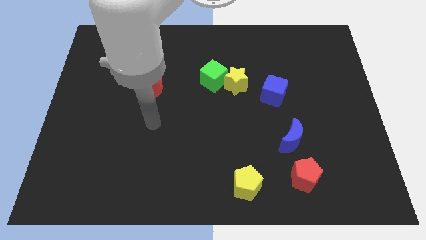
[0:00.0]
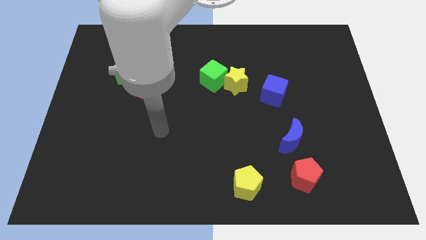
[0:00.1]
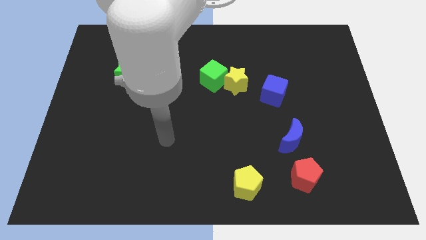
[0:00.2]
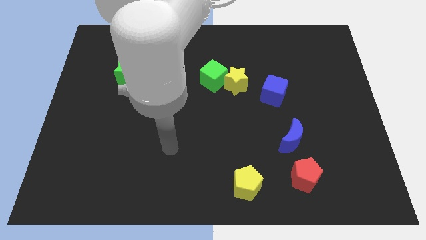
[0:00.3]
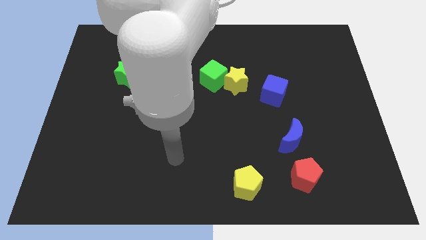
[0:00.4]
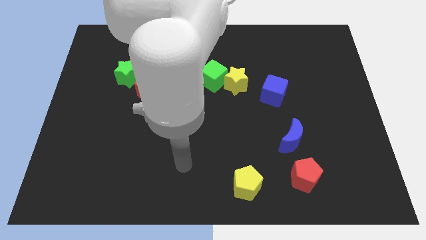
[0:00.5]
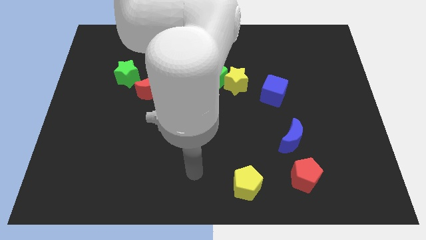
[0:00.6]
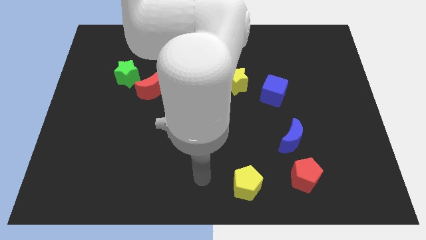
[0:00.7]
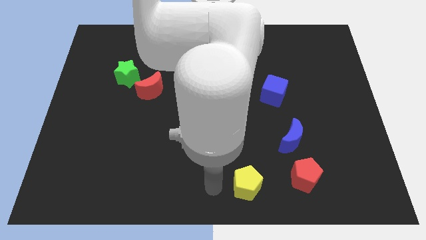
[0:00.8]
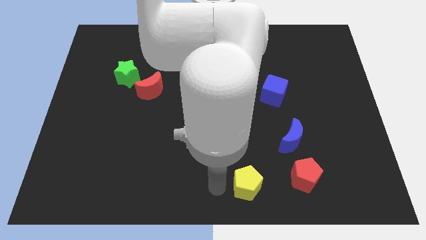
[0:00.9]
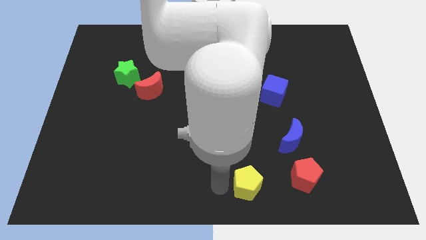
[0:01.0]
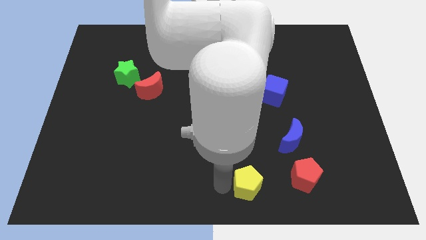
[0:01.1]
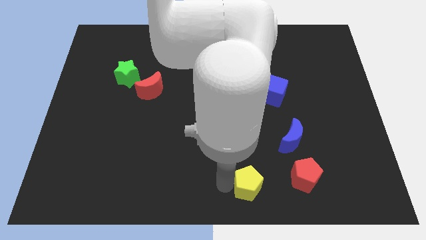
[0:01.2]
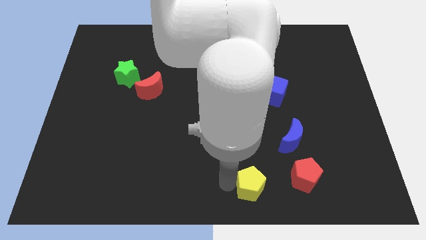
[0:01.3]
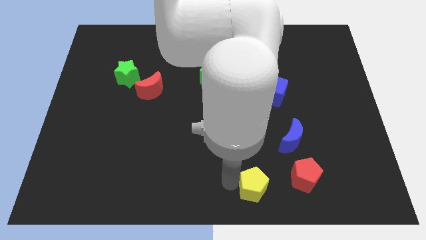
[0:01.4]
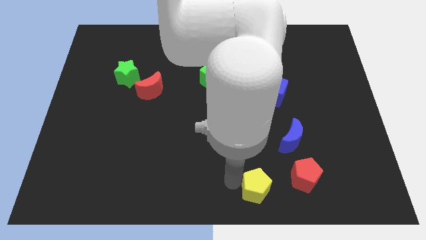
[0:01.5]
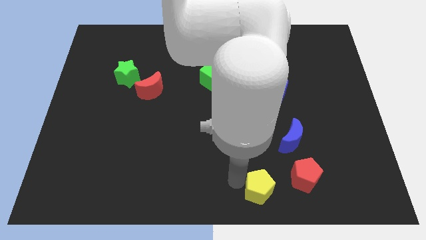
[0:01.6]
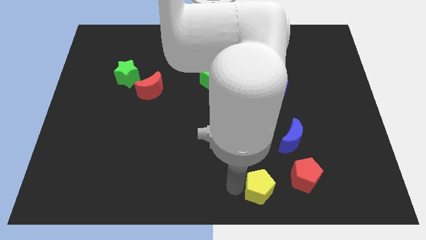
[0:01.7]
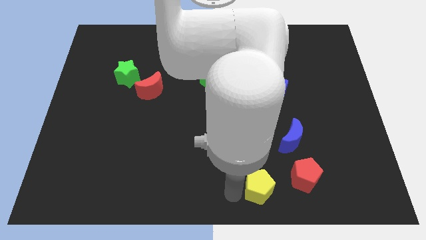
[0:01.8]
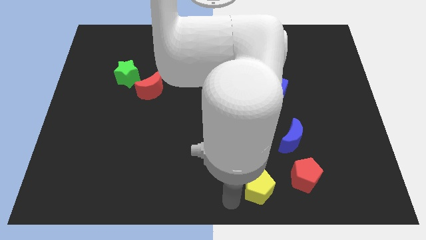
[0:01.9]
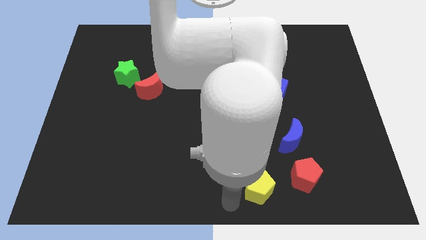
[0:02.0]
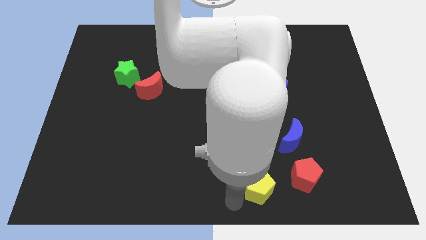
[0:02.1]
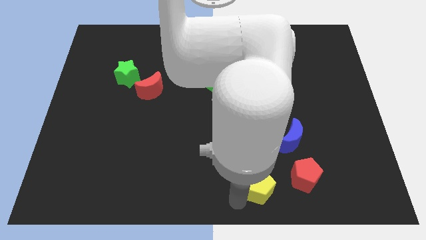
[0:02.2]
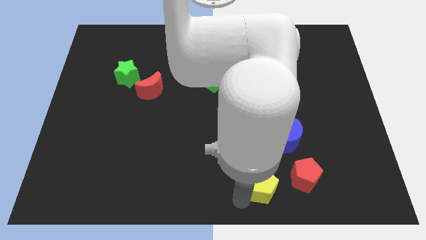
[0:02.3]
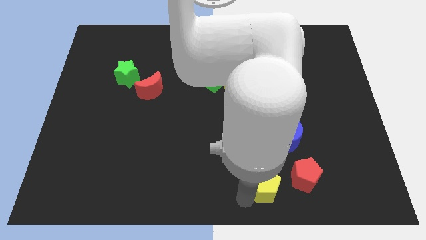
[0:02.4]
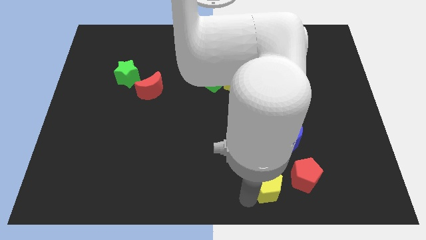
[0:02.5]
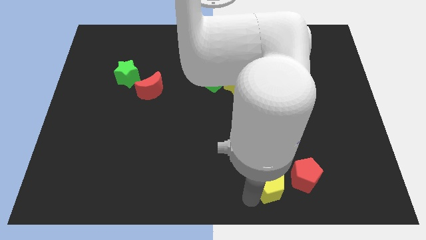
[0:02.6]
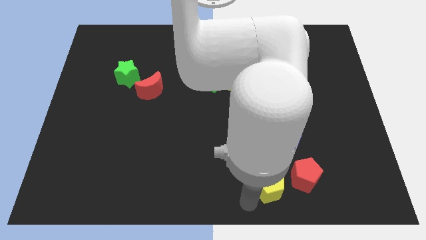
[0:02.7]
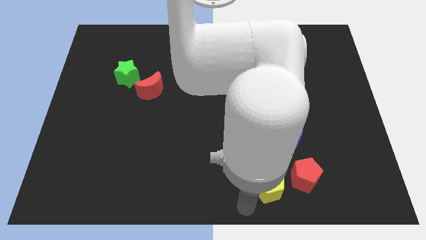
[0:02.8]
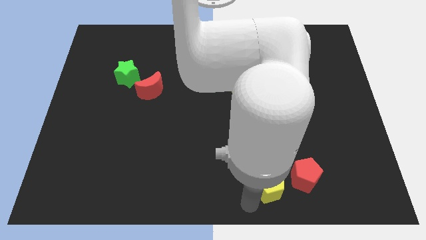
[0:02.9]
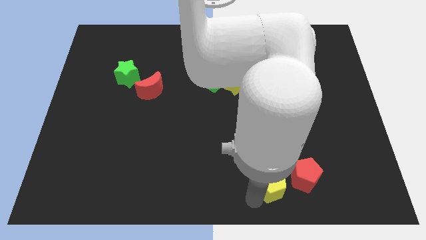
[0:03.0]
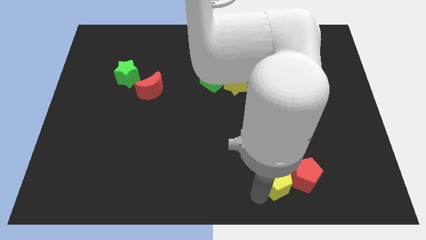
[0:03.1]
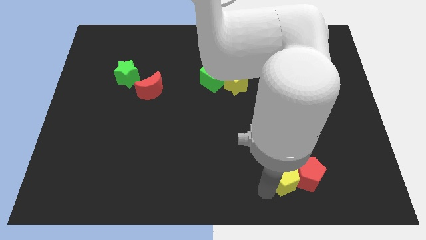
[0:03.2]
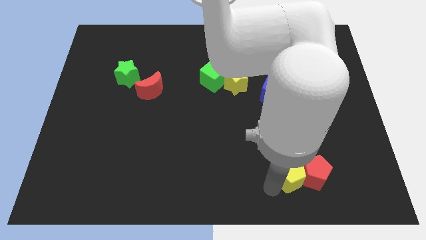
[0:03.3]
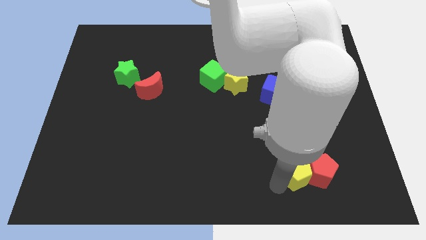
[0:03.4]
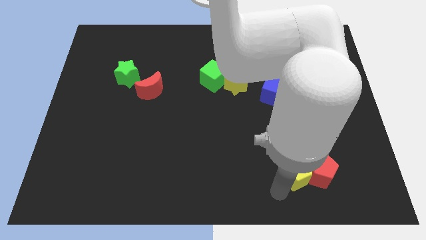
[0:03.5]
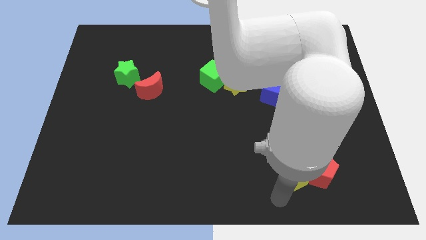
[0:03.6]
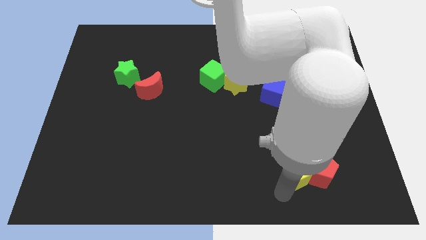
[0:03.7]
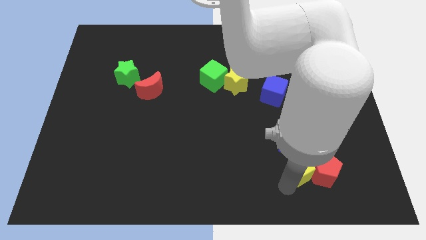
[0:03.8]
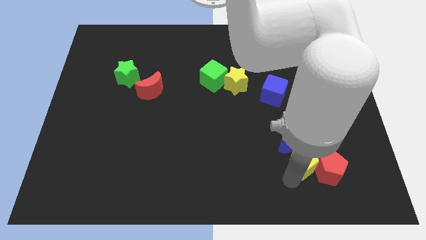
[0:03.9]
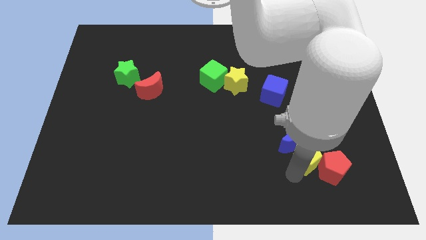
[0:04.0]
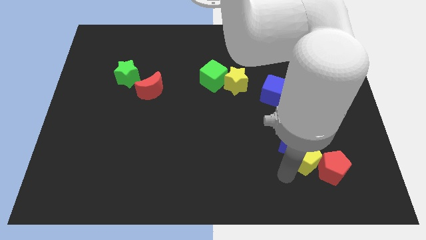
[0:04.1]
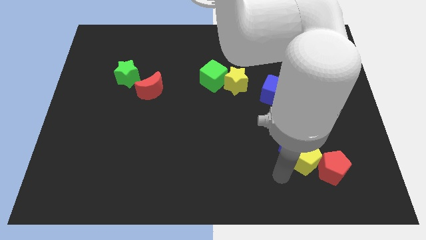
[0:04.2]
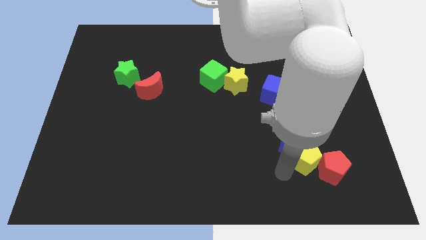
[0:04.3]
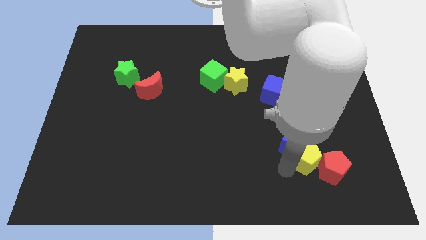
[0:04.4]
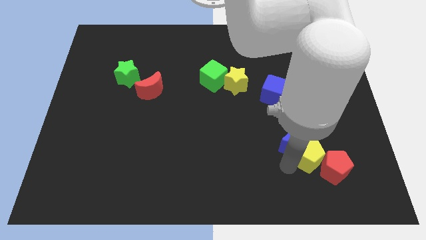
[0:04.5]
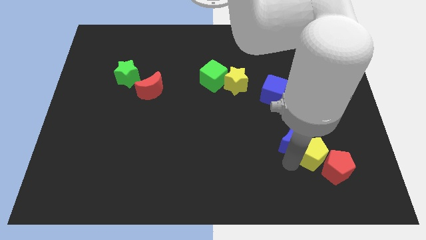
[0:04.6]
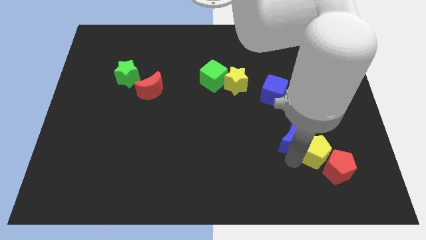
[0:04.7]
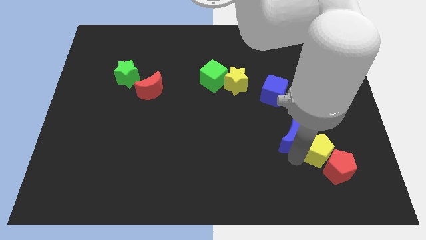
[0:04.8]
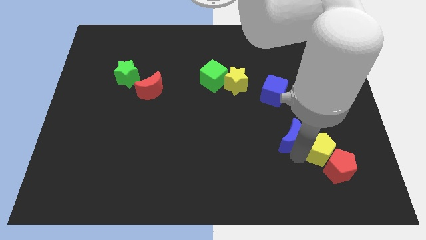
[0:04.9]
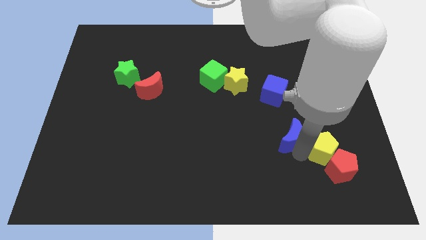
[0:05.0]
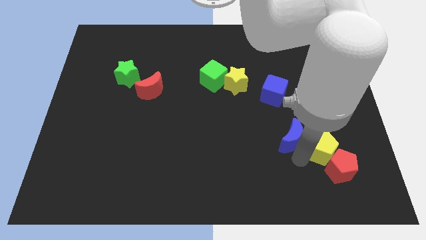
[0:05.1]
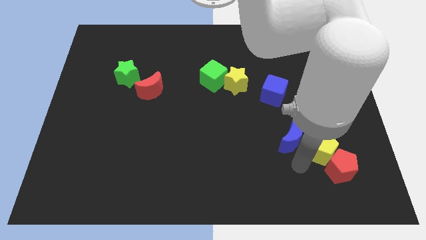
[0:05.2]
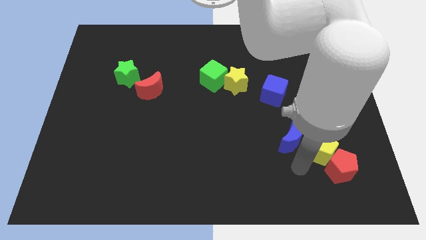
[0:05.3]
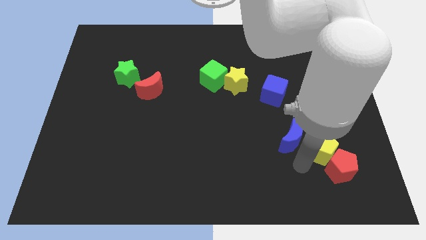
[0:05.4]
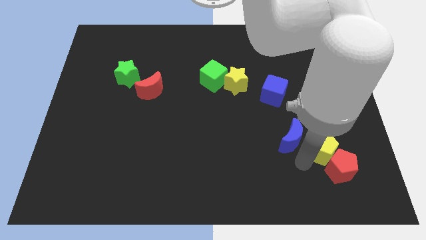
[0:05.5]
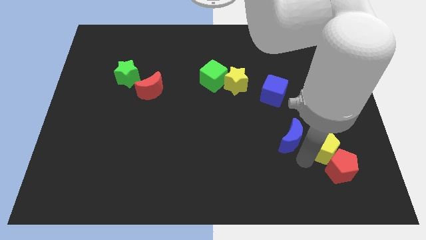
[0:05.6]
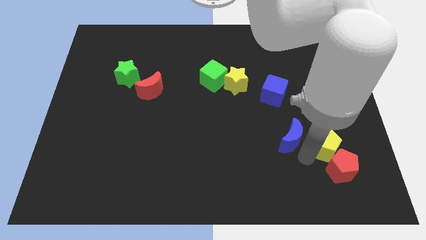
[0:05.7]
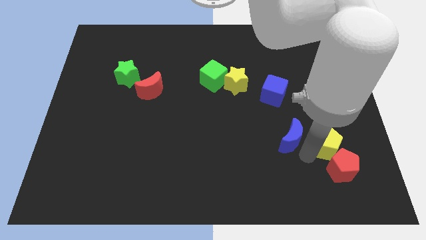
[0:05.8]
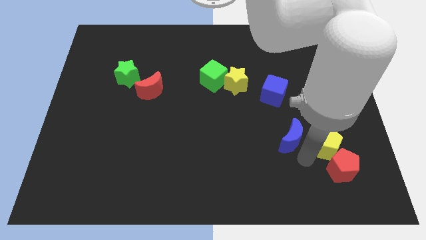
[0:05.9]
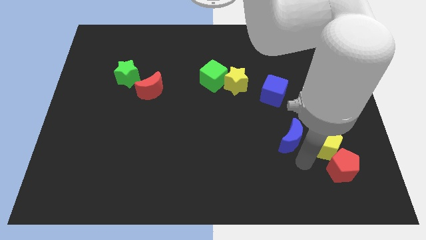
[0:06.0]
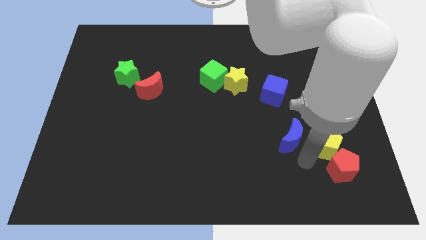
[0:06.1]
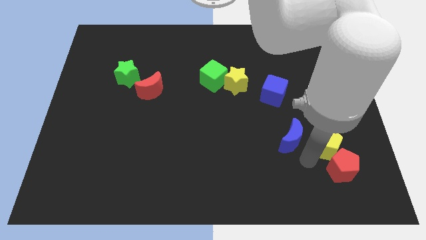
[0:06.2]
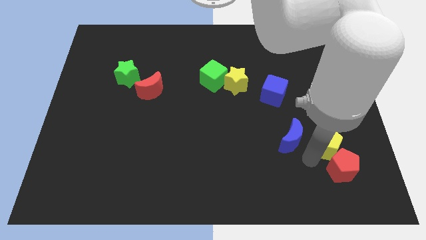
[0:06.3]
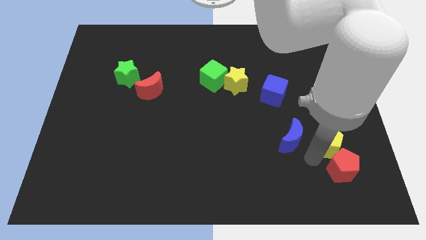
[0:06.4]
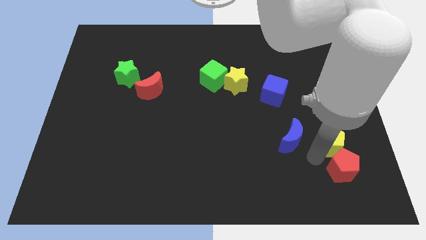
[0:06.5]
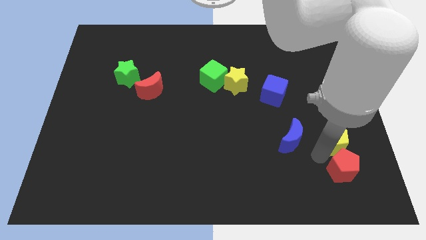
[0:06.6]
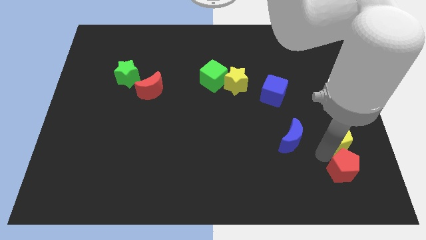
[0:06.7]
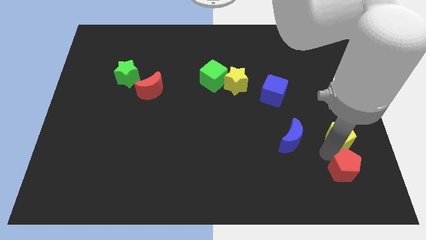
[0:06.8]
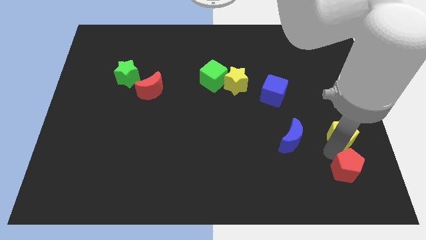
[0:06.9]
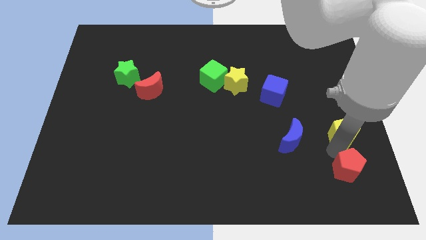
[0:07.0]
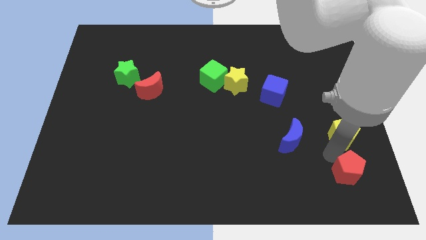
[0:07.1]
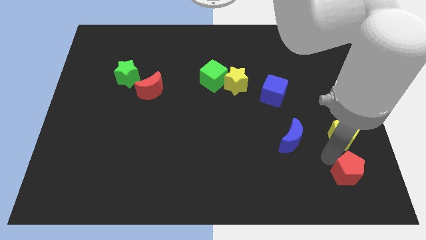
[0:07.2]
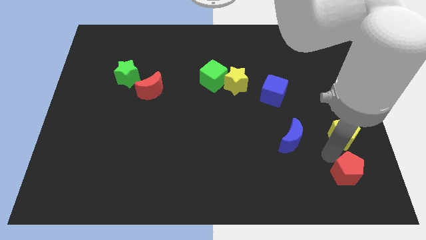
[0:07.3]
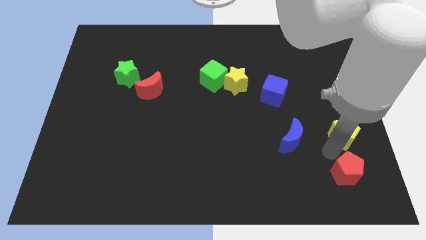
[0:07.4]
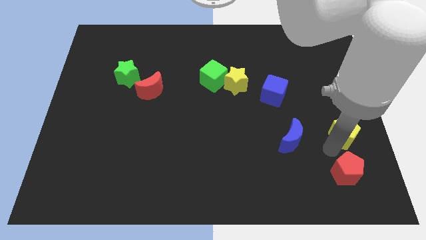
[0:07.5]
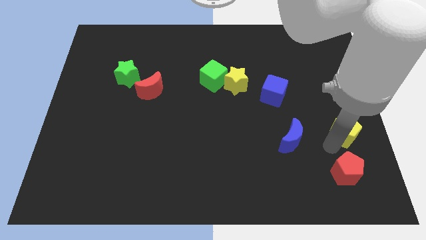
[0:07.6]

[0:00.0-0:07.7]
move the yellow pentagon to the center right
